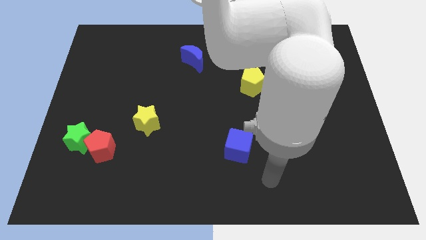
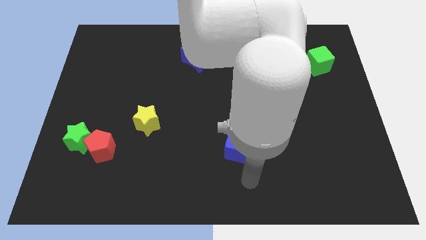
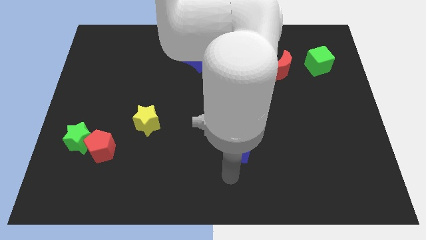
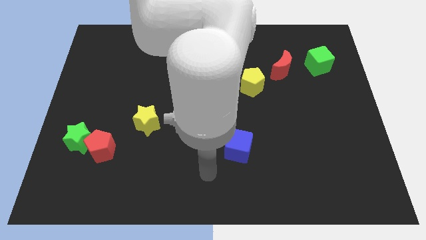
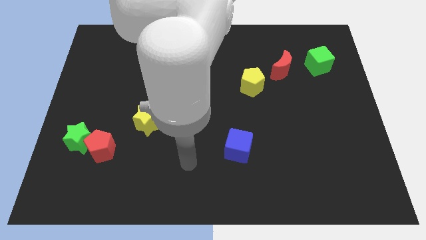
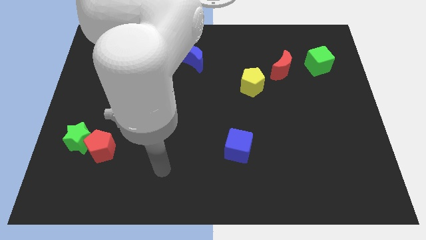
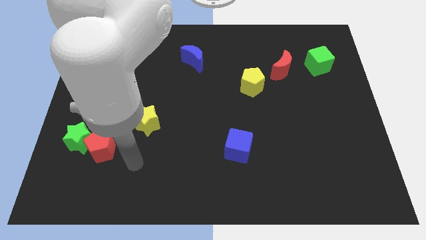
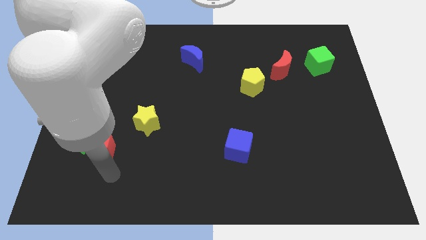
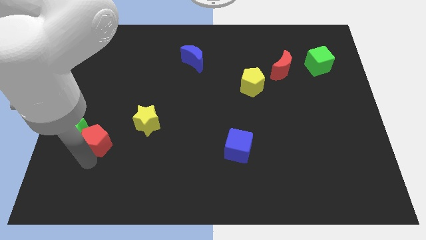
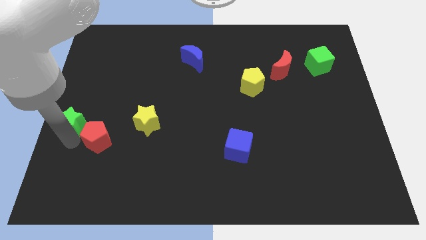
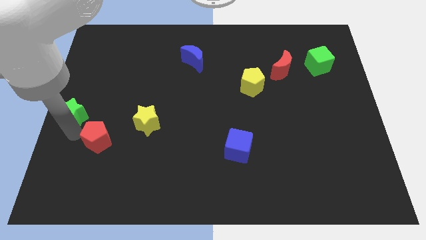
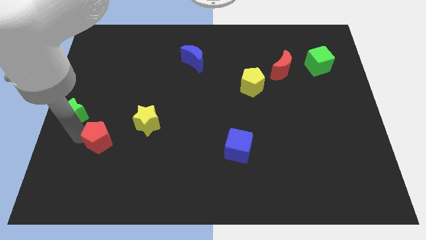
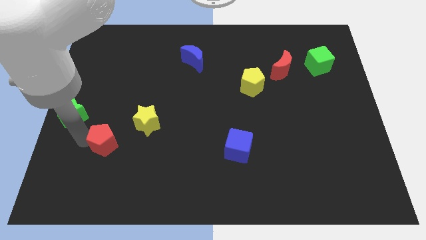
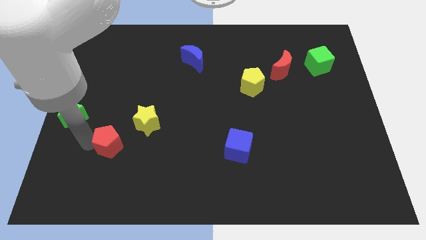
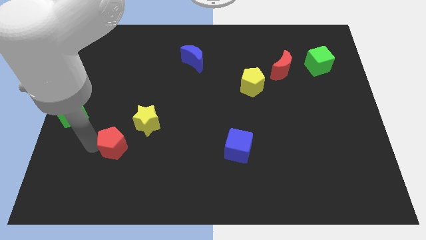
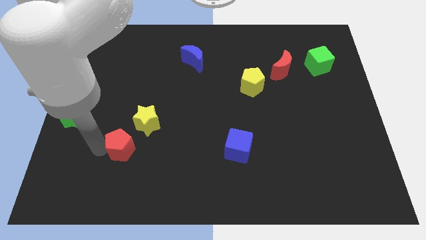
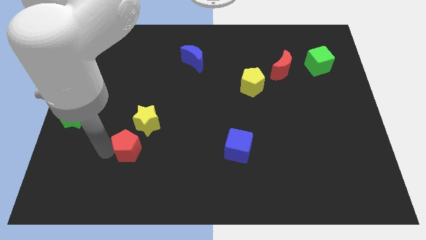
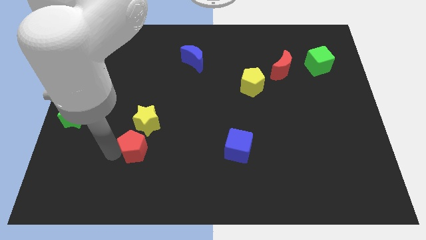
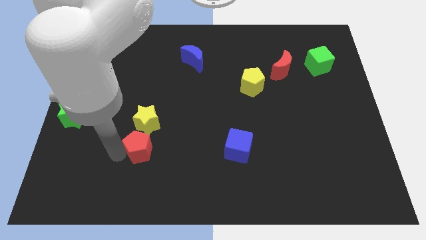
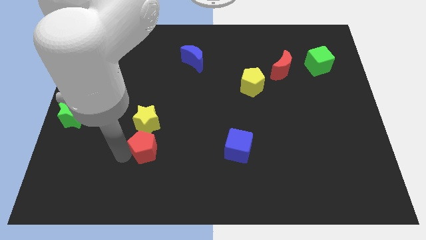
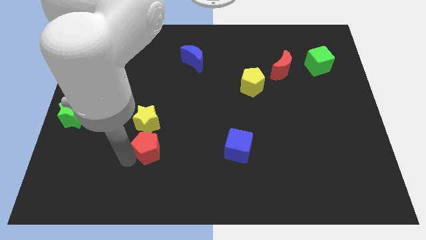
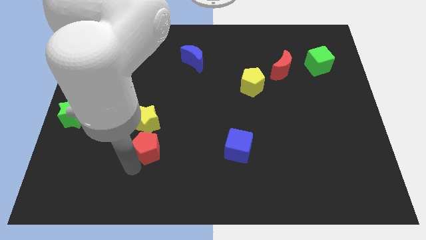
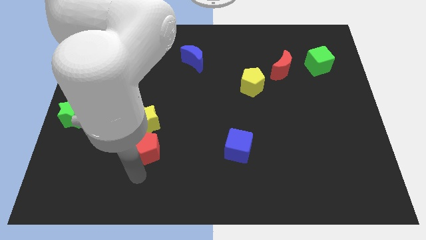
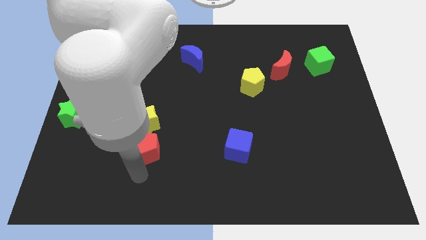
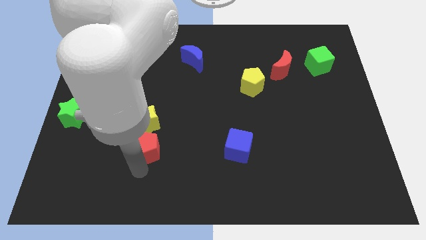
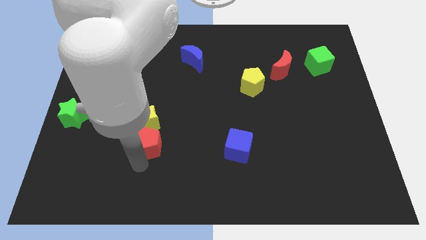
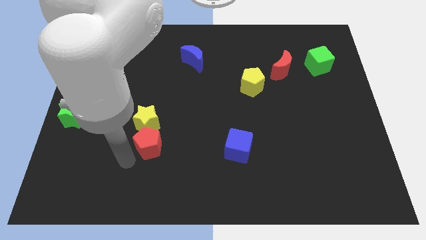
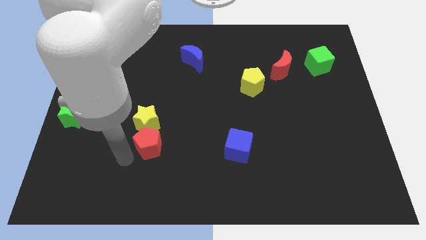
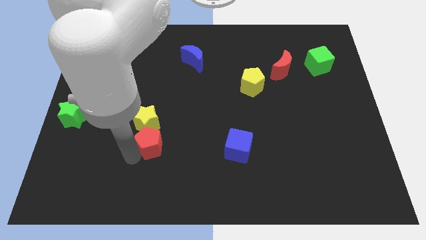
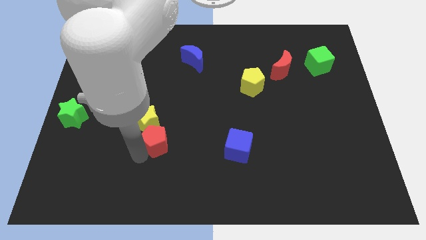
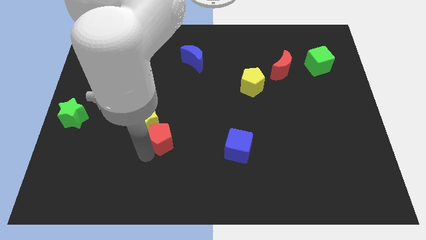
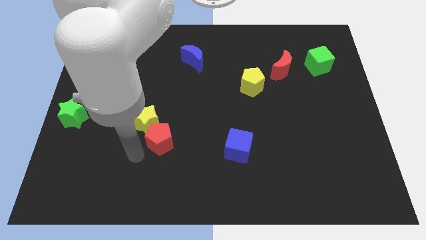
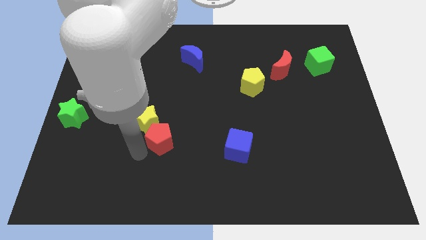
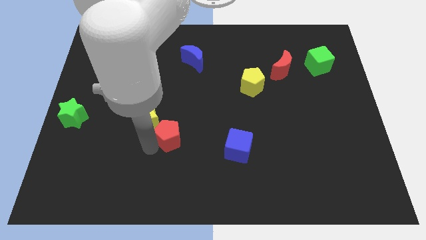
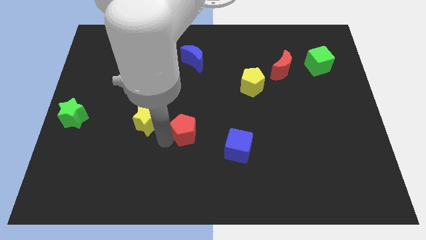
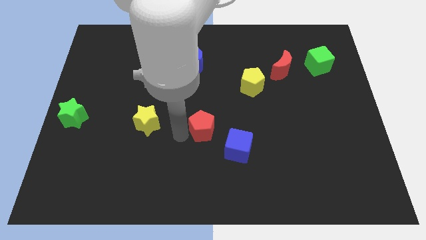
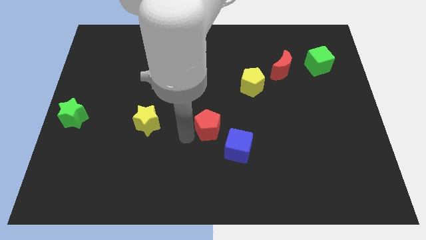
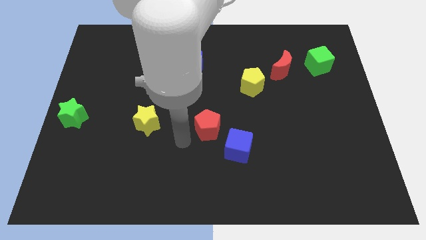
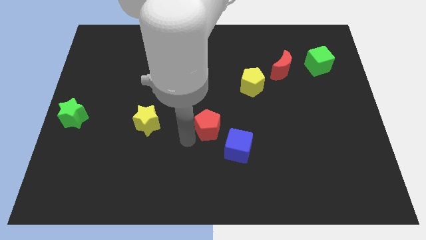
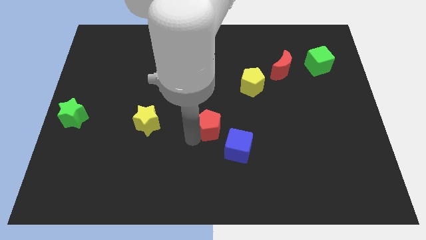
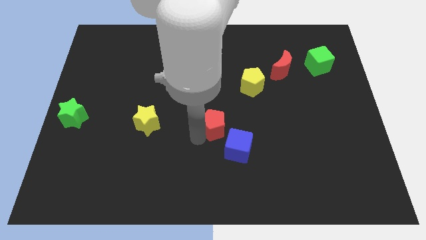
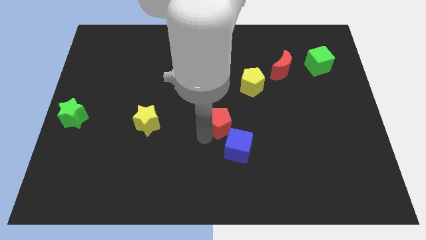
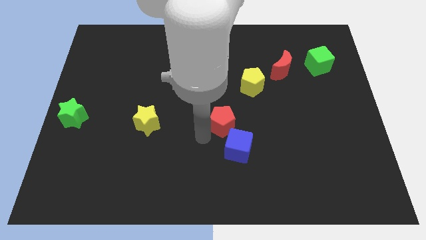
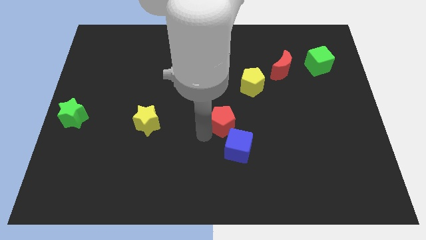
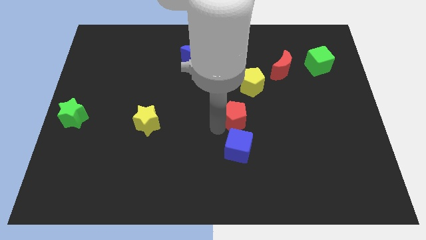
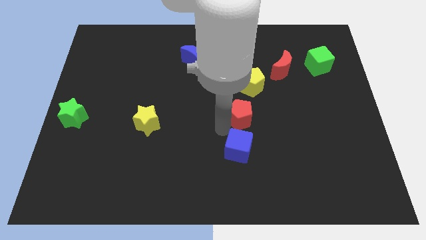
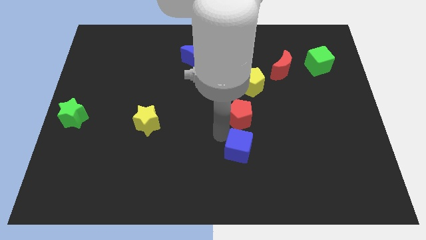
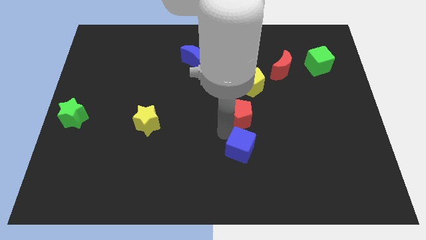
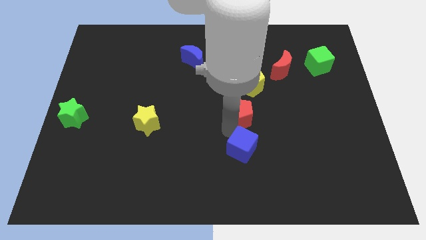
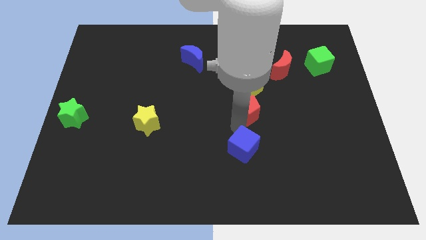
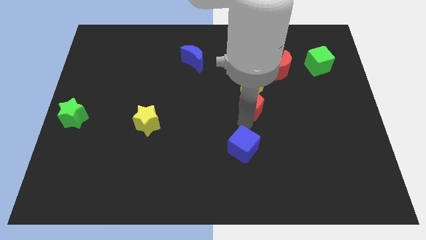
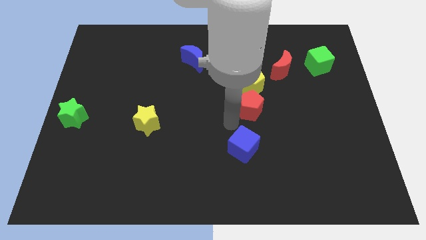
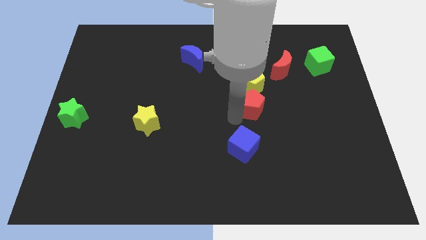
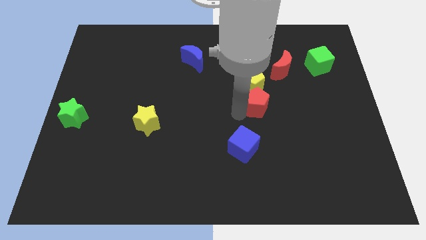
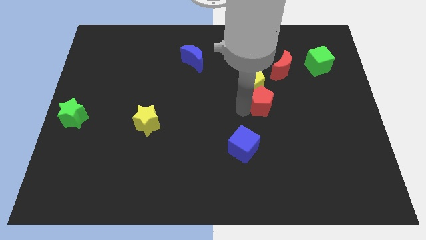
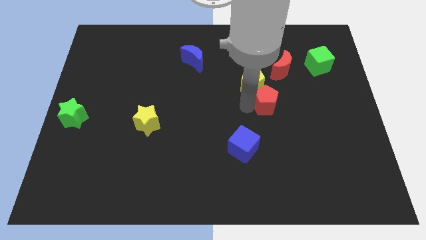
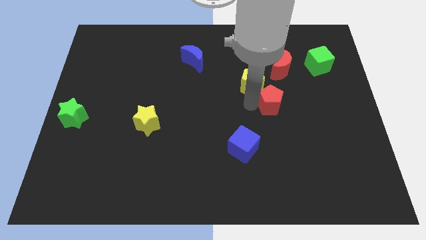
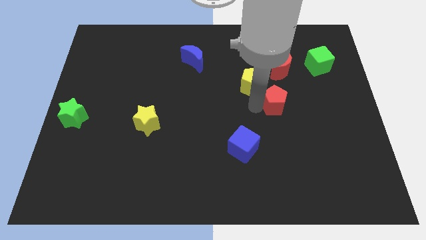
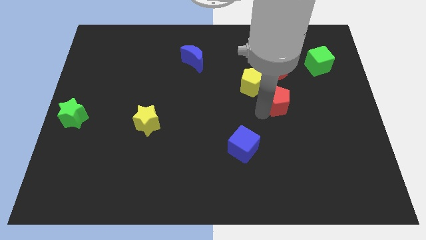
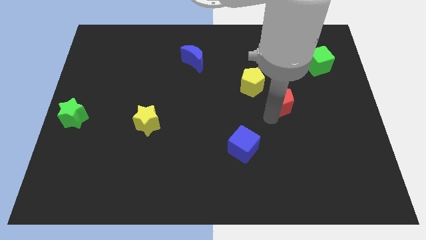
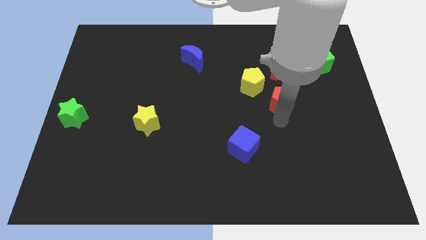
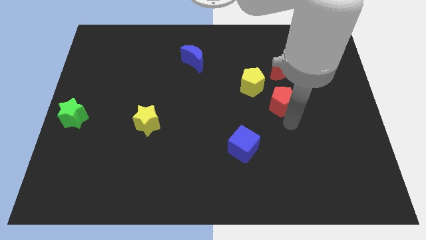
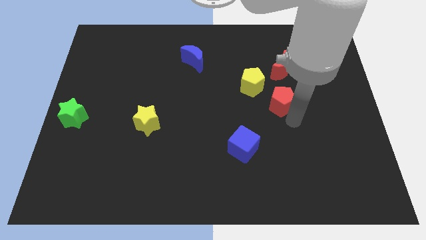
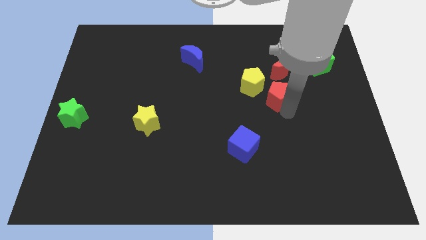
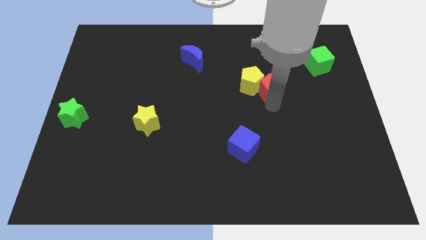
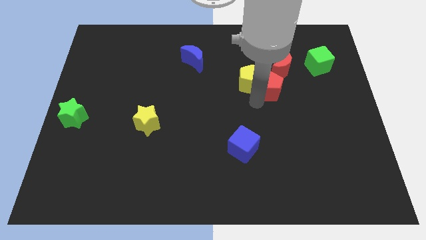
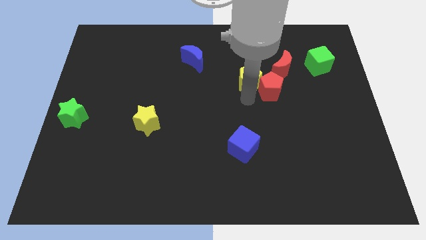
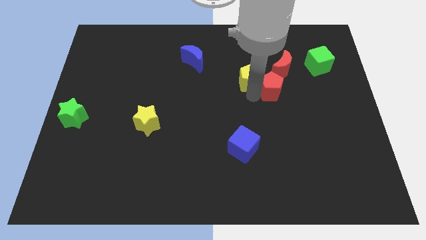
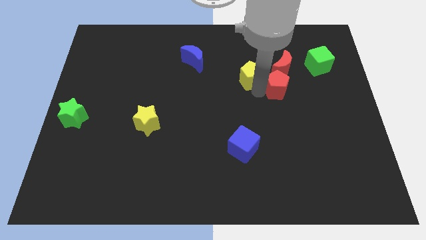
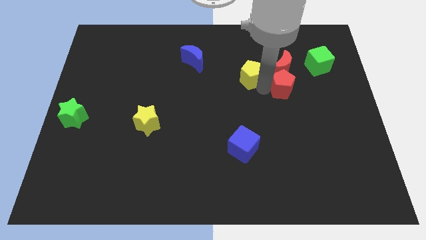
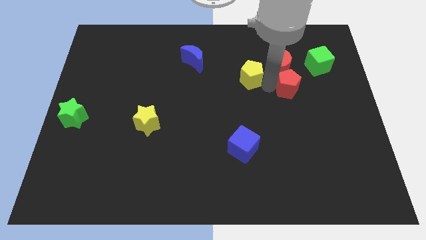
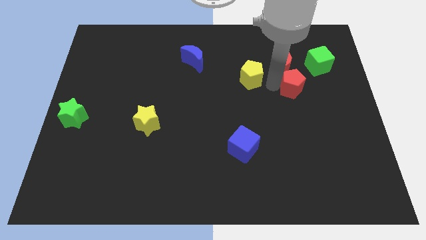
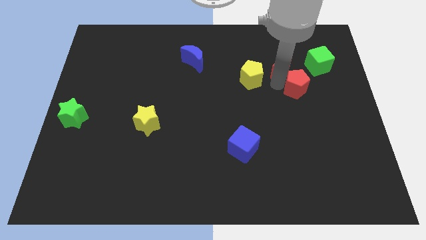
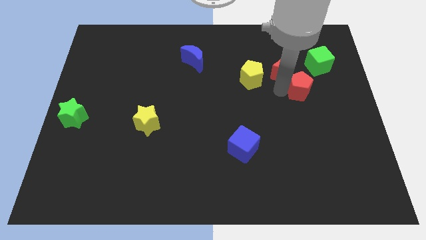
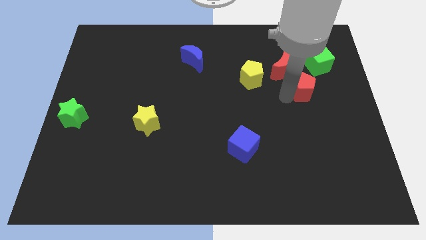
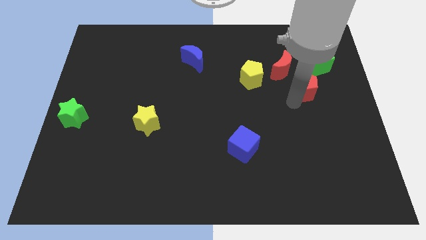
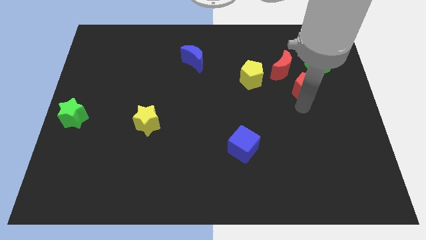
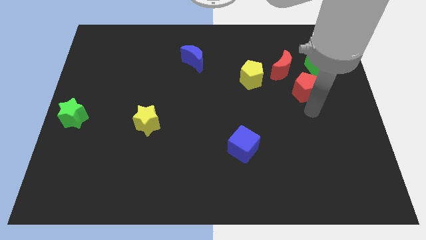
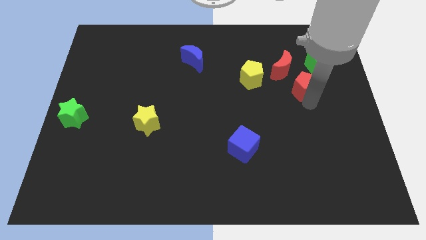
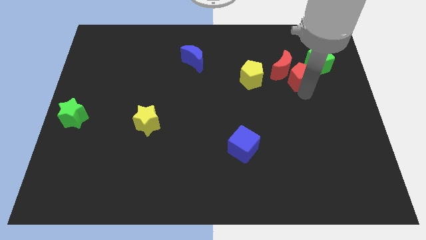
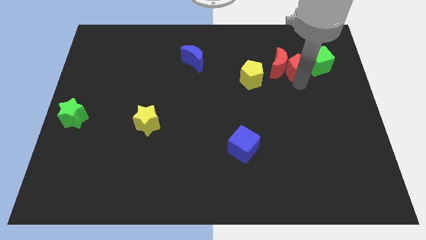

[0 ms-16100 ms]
push the red pentagon towards the green cube
